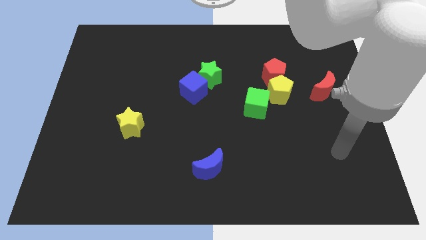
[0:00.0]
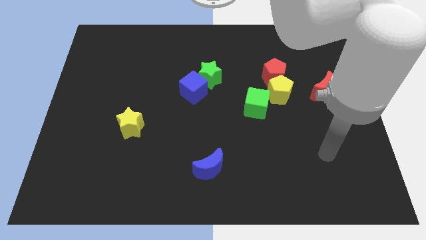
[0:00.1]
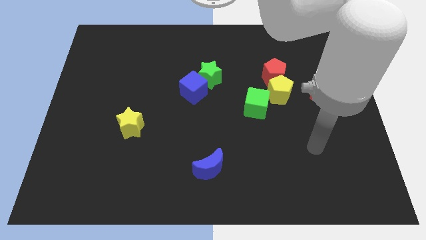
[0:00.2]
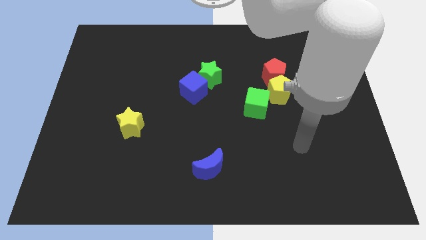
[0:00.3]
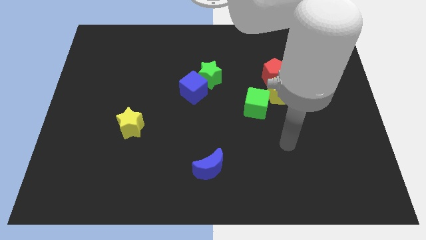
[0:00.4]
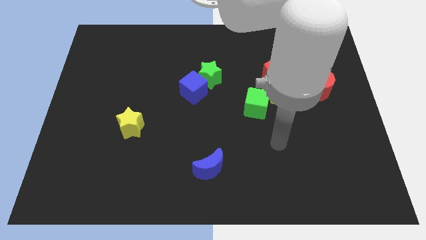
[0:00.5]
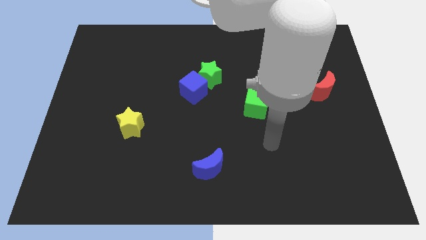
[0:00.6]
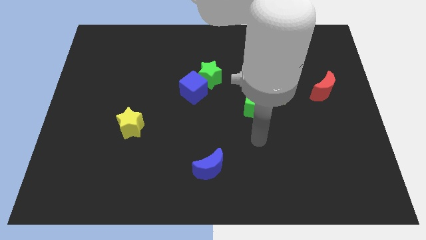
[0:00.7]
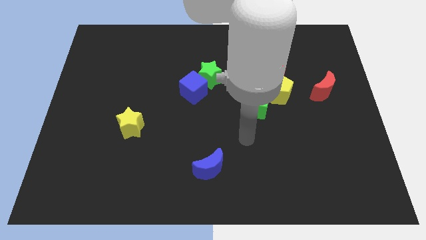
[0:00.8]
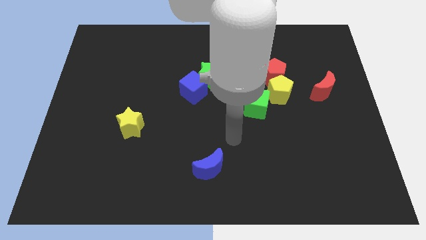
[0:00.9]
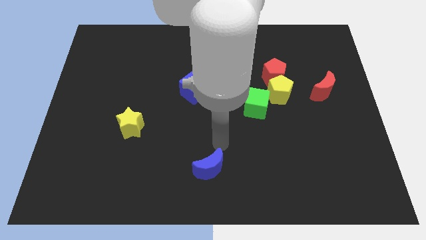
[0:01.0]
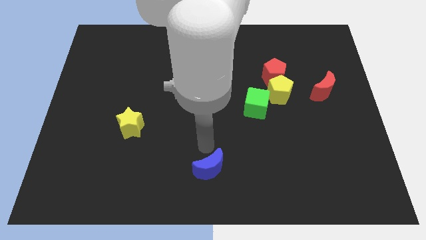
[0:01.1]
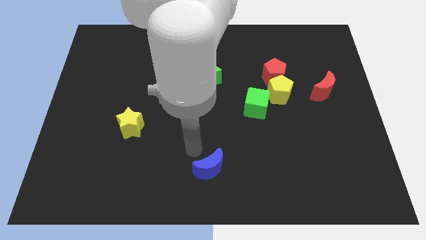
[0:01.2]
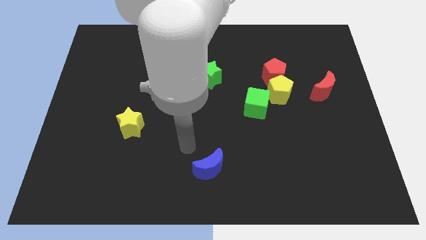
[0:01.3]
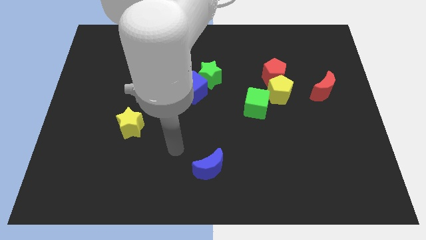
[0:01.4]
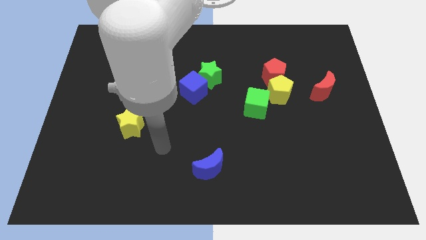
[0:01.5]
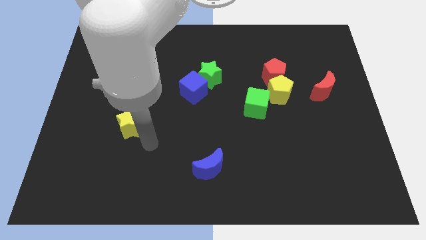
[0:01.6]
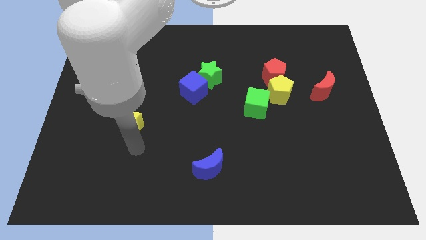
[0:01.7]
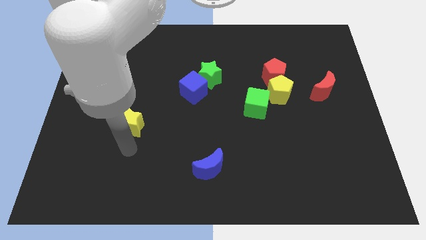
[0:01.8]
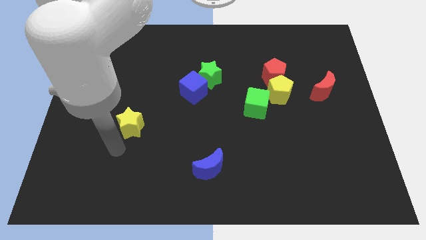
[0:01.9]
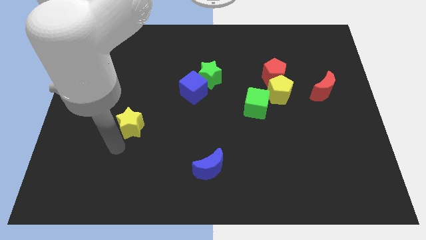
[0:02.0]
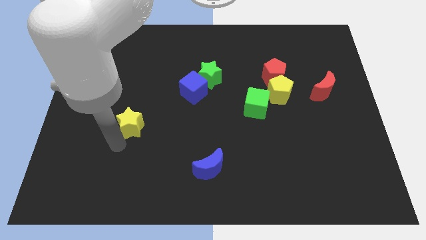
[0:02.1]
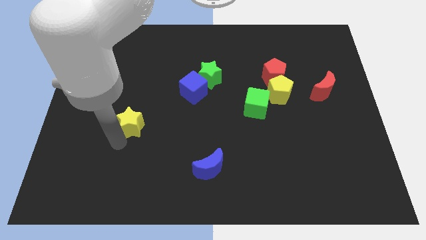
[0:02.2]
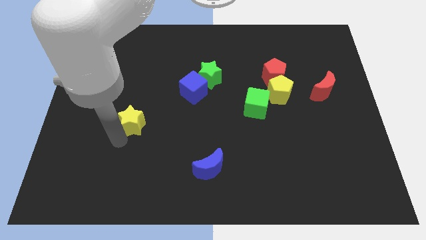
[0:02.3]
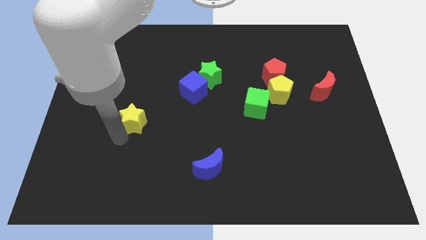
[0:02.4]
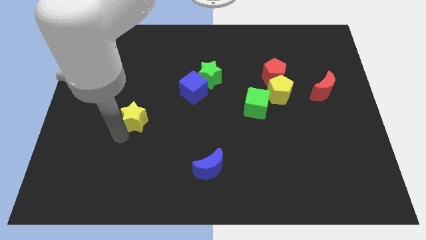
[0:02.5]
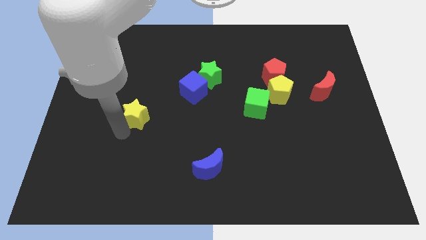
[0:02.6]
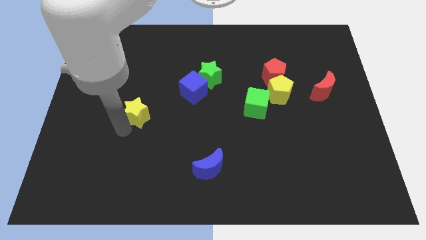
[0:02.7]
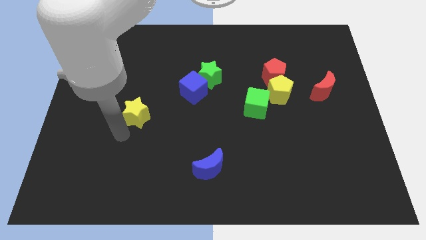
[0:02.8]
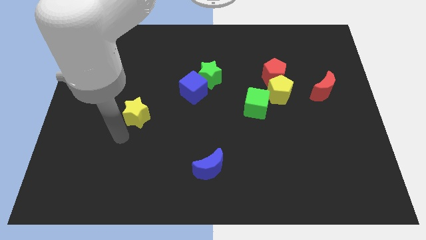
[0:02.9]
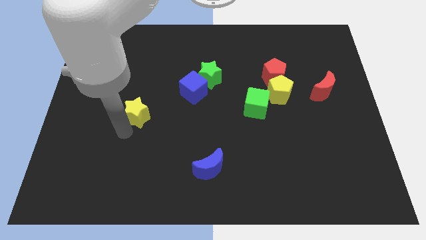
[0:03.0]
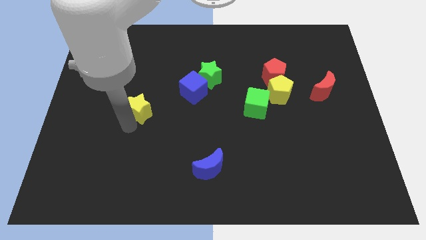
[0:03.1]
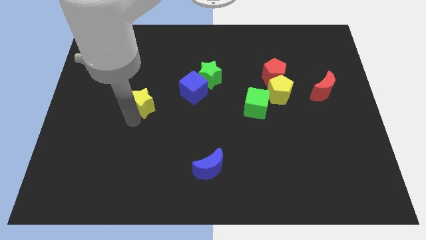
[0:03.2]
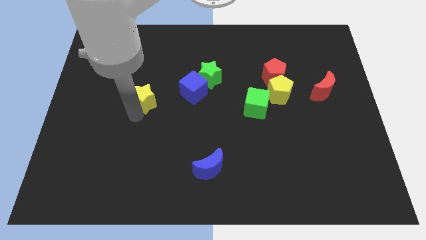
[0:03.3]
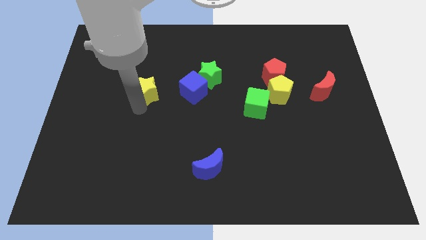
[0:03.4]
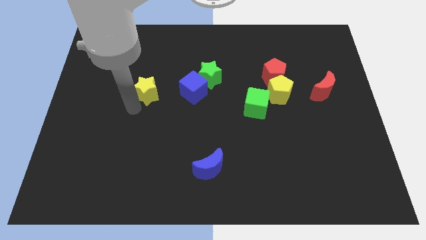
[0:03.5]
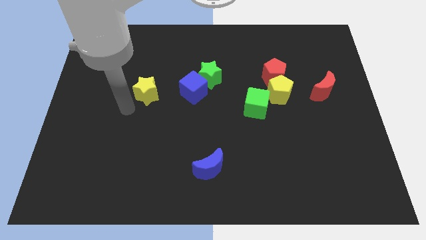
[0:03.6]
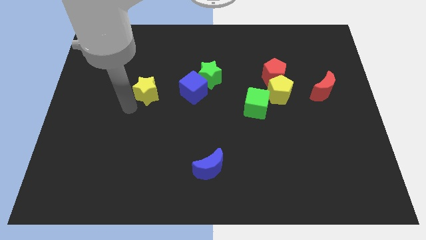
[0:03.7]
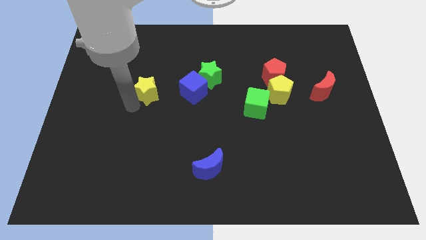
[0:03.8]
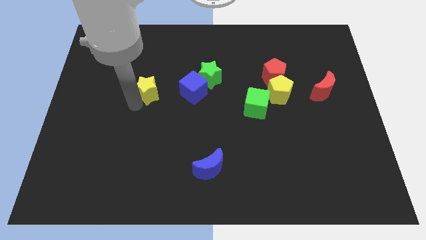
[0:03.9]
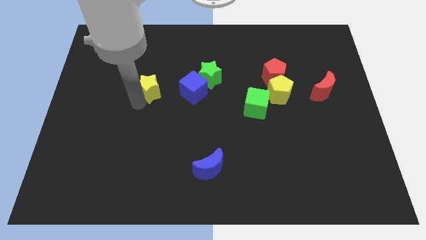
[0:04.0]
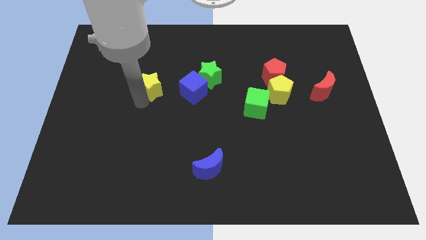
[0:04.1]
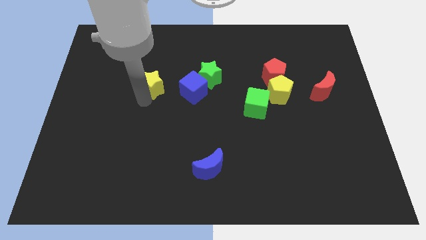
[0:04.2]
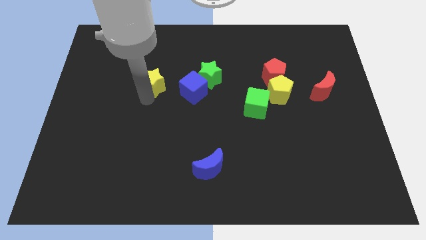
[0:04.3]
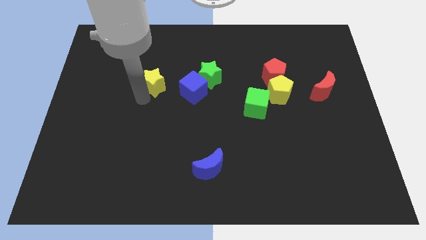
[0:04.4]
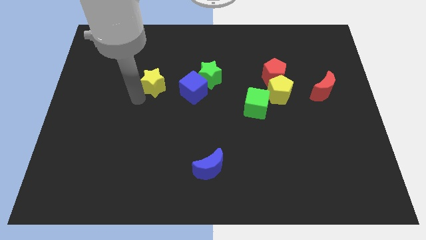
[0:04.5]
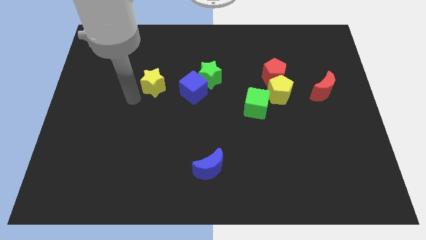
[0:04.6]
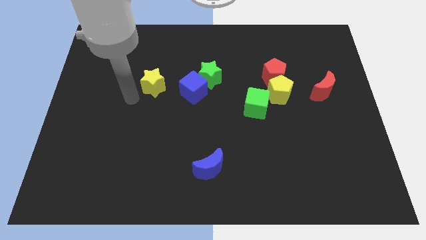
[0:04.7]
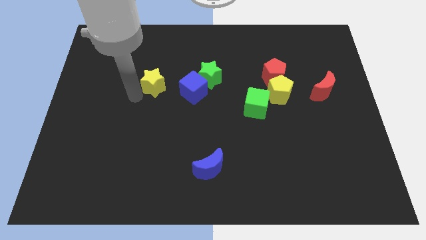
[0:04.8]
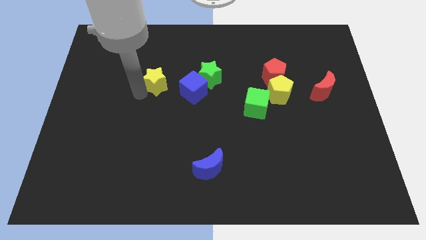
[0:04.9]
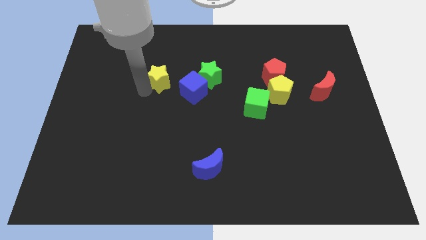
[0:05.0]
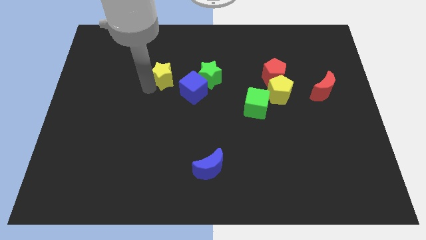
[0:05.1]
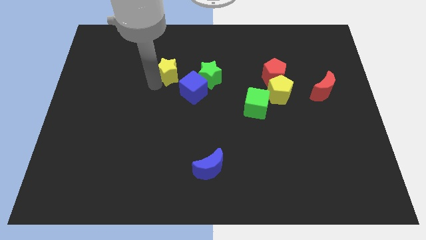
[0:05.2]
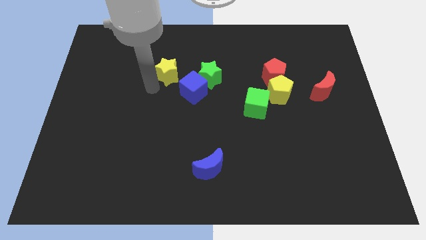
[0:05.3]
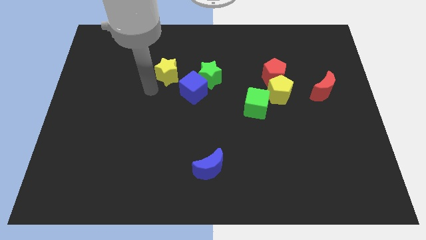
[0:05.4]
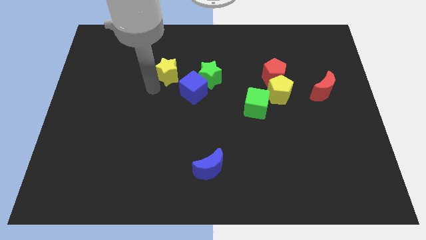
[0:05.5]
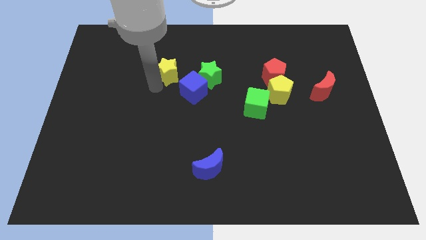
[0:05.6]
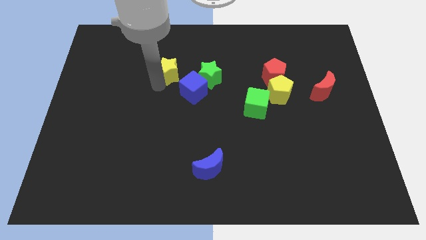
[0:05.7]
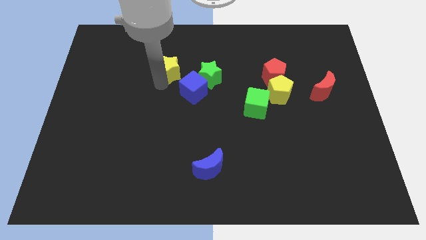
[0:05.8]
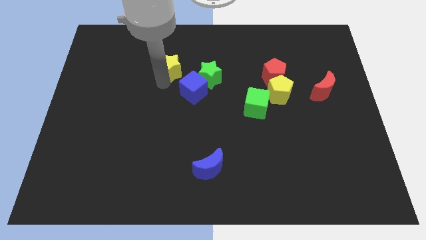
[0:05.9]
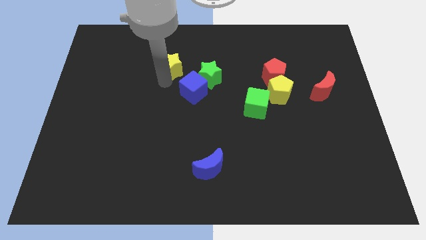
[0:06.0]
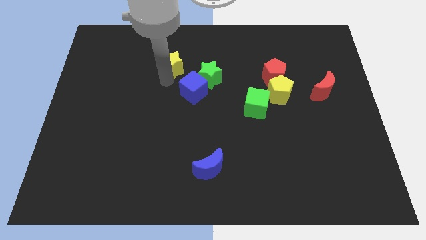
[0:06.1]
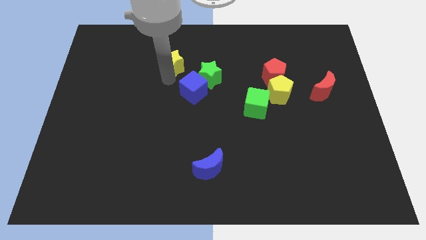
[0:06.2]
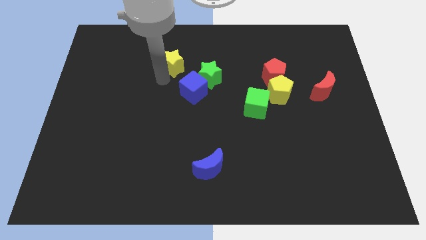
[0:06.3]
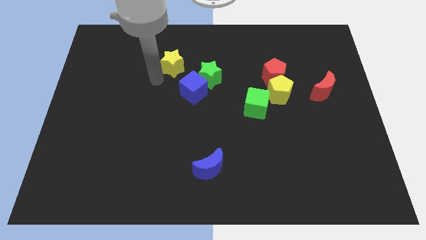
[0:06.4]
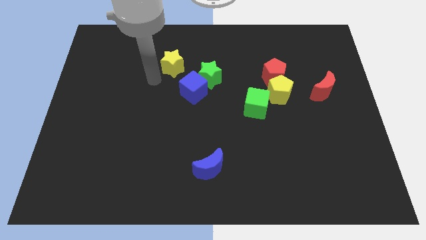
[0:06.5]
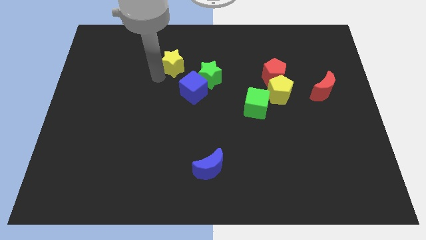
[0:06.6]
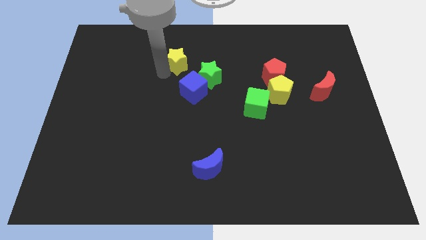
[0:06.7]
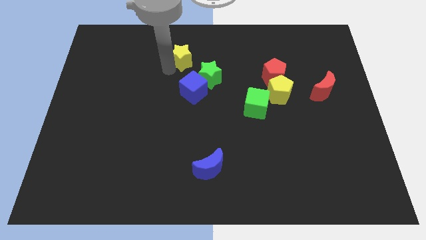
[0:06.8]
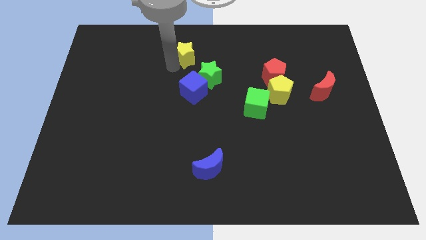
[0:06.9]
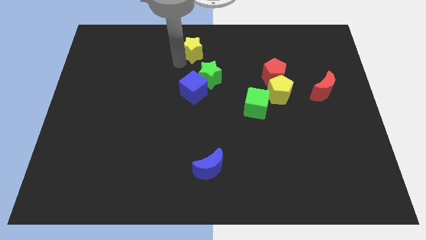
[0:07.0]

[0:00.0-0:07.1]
push the yellow star to the towards your base
